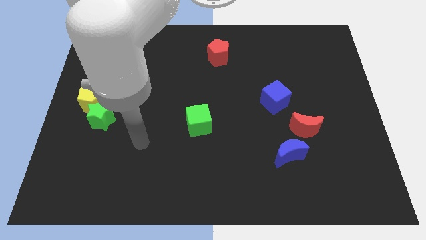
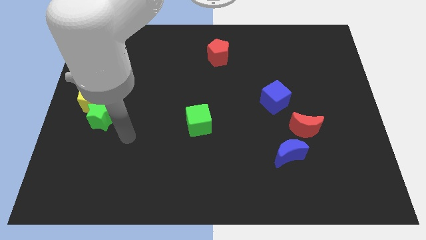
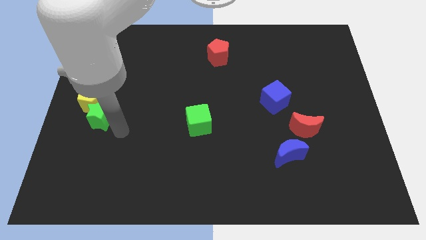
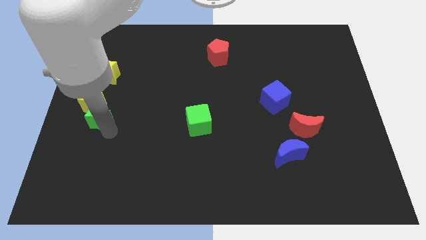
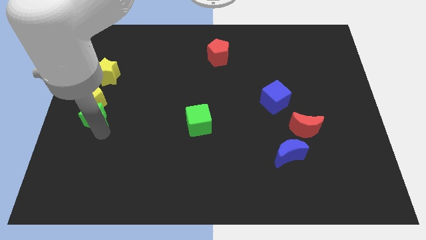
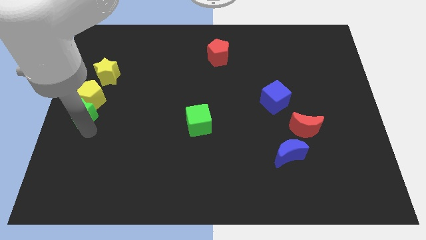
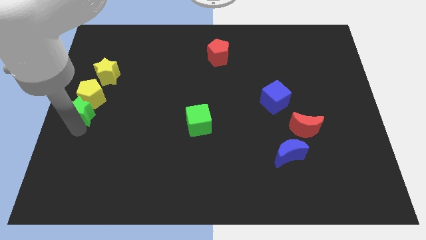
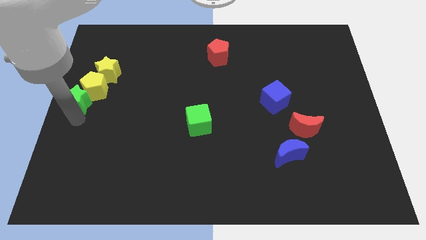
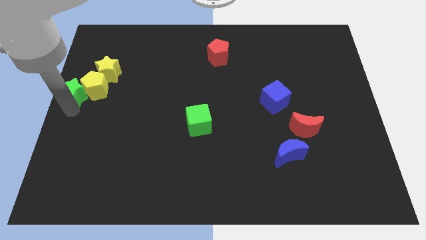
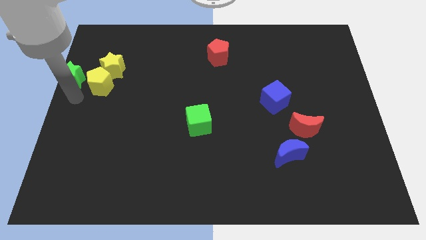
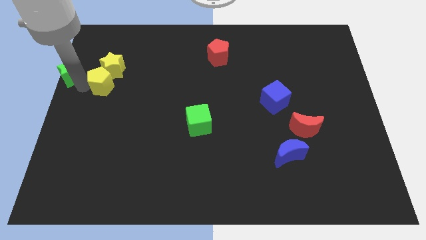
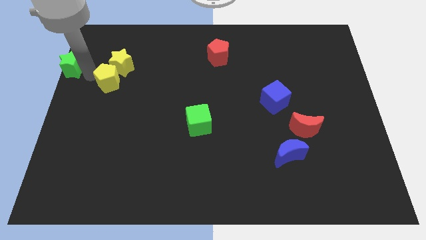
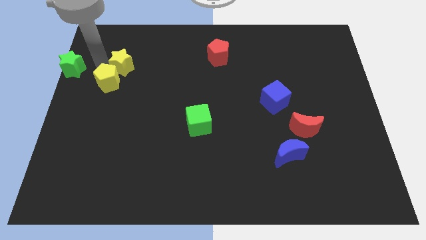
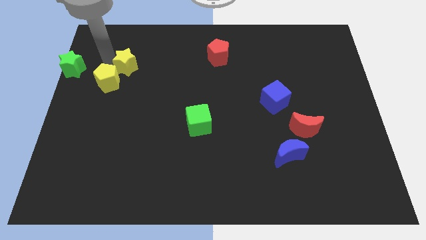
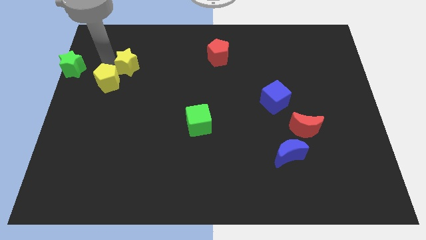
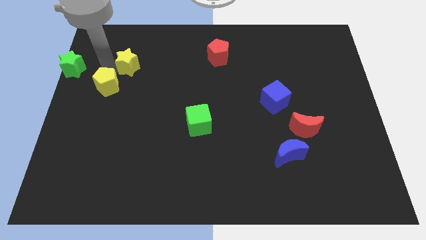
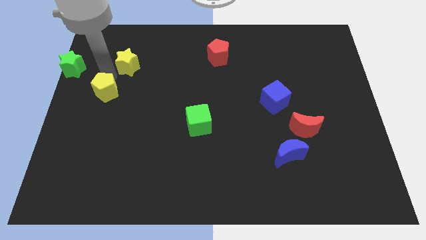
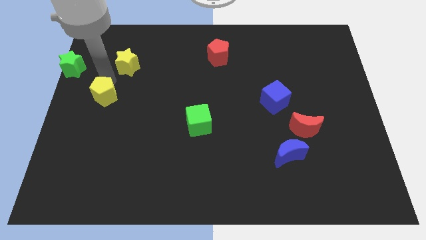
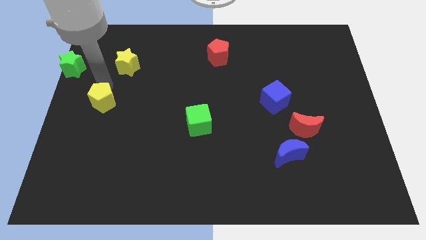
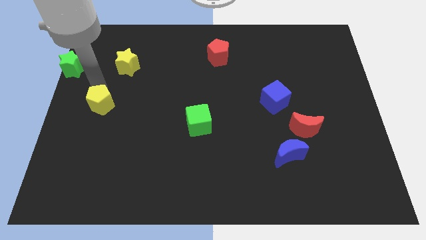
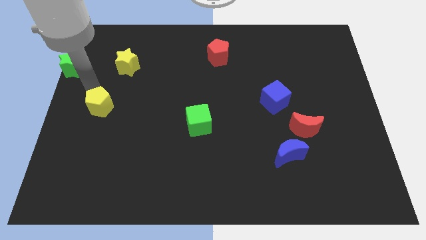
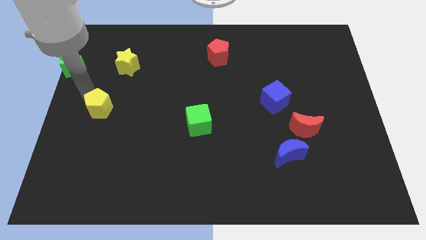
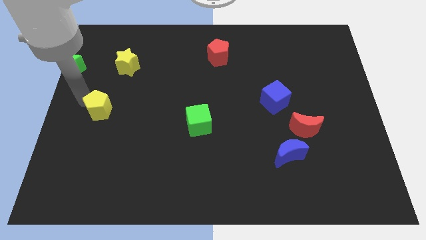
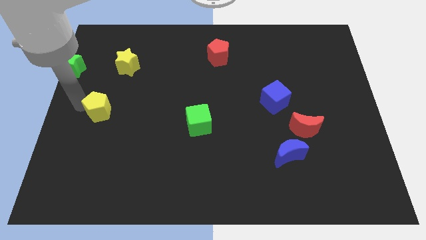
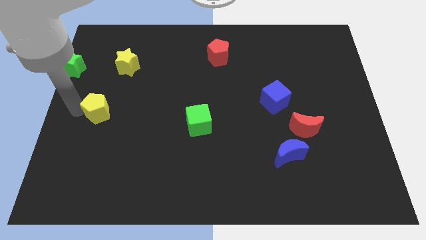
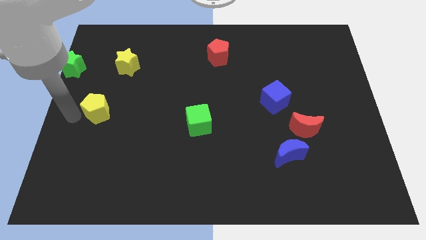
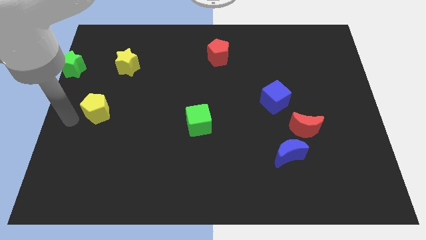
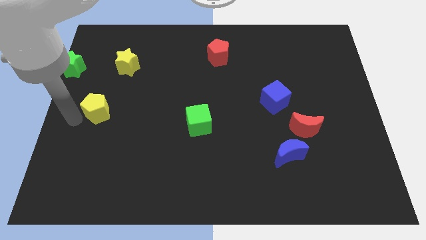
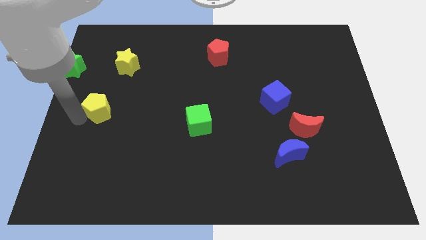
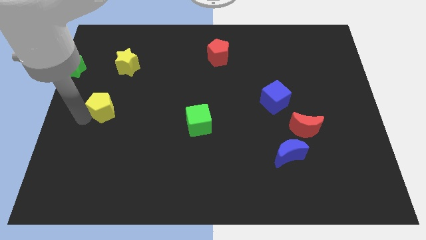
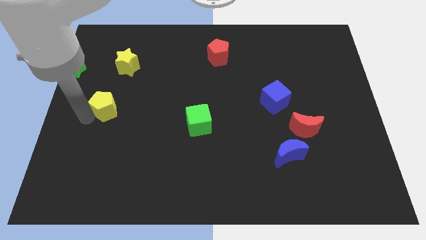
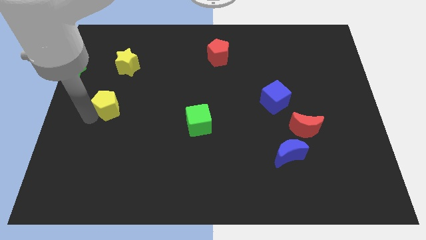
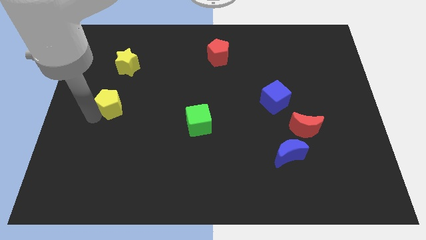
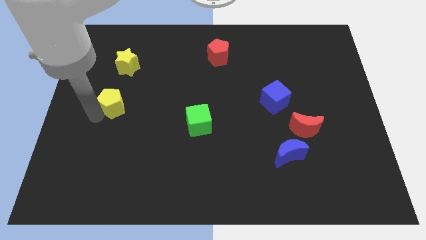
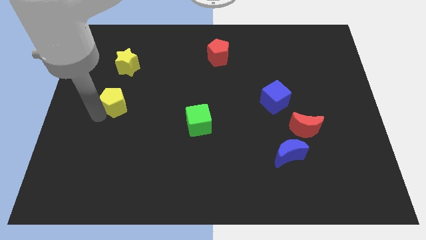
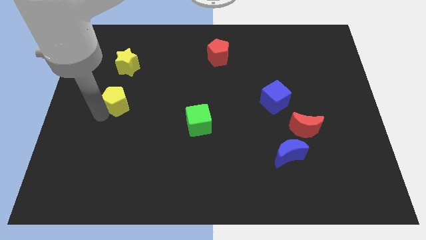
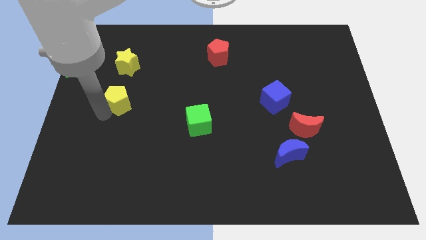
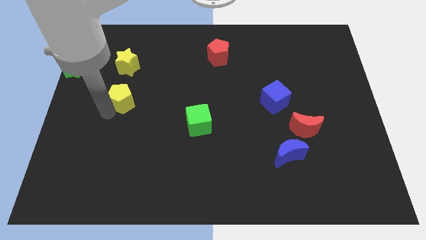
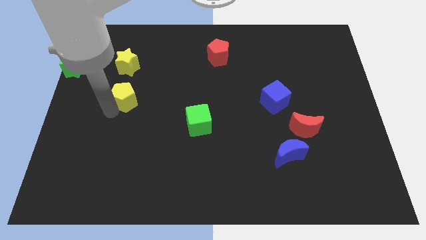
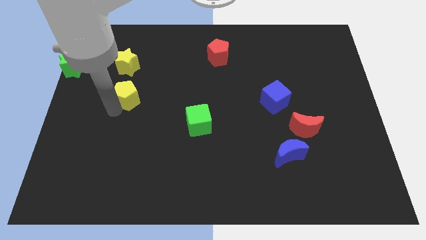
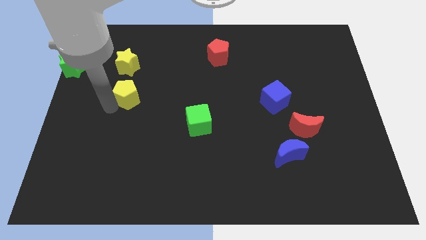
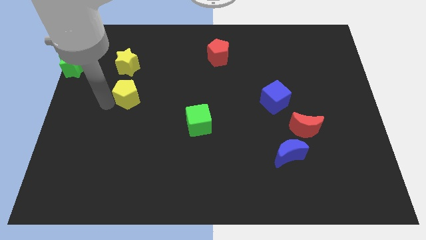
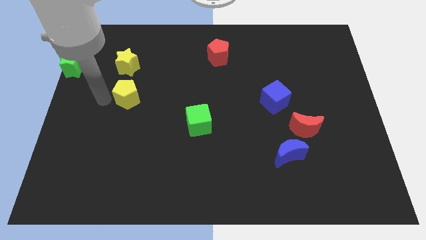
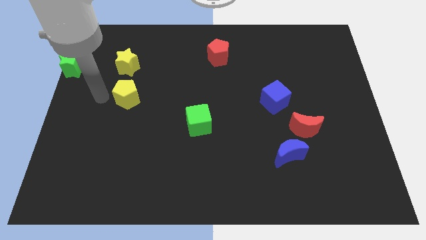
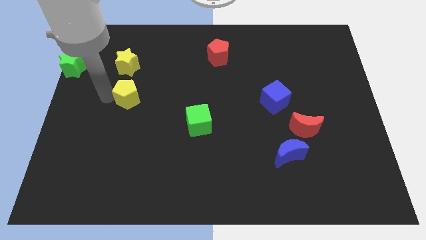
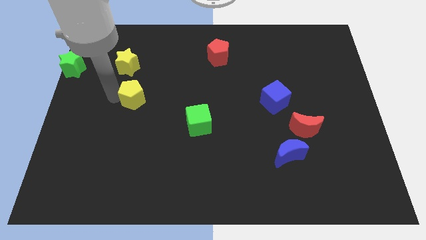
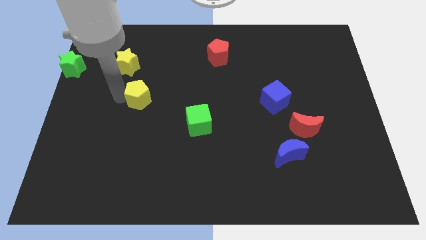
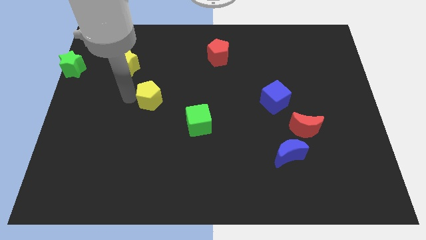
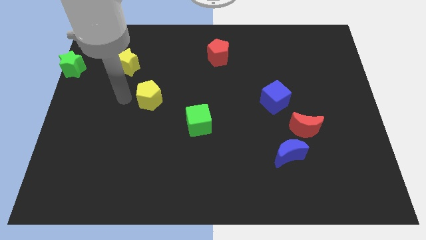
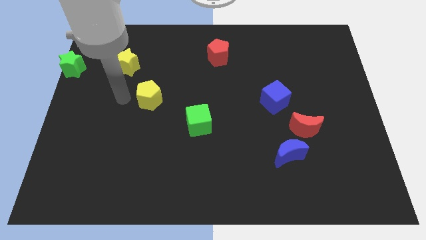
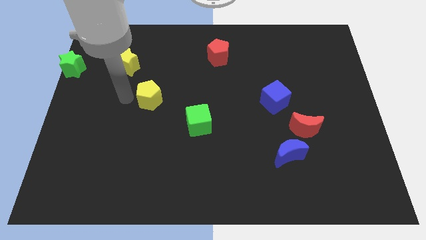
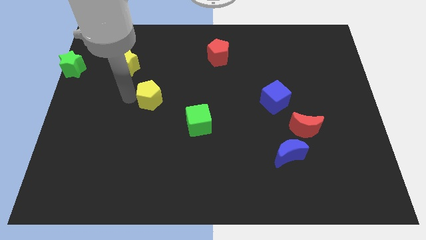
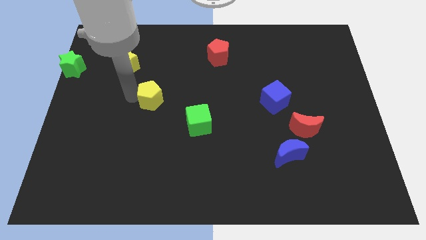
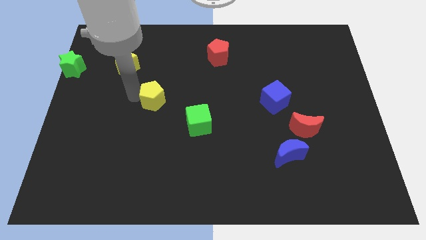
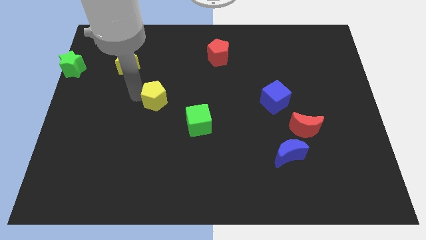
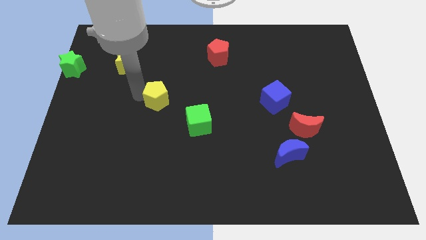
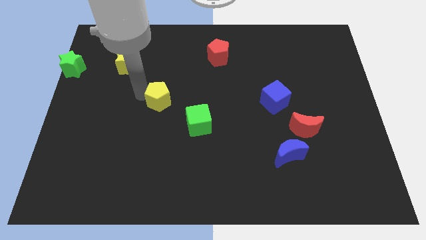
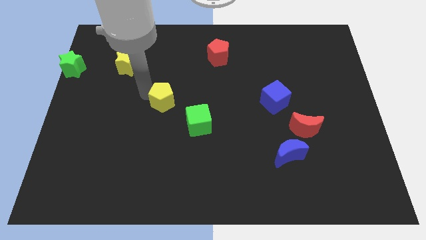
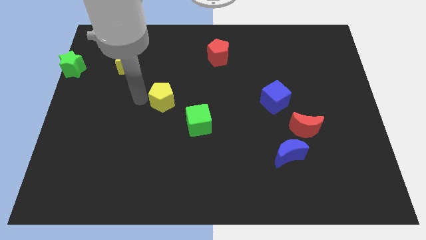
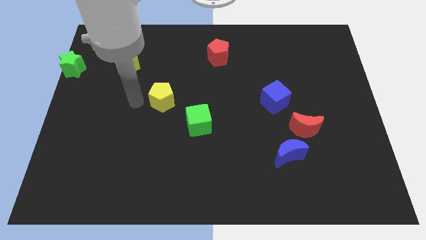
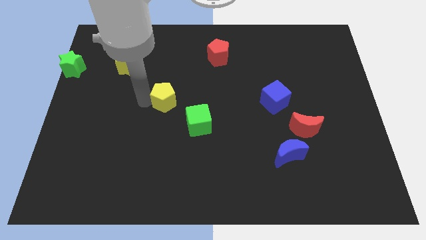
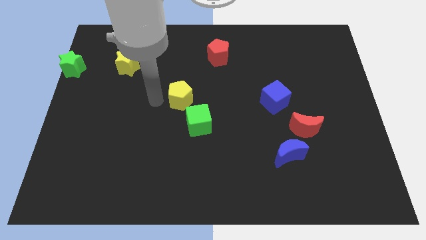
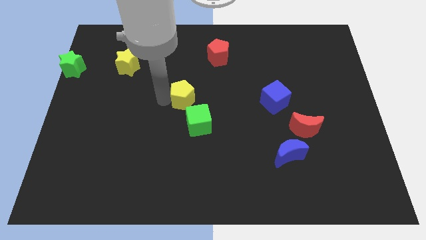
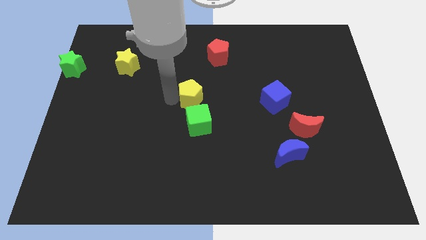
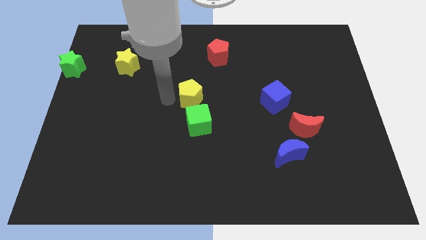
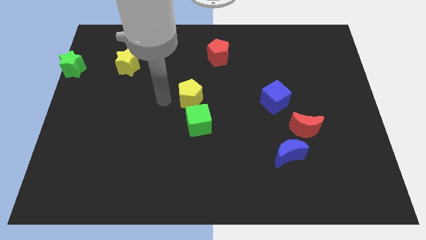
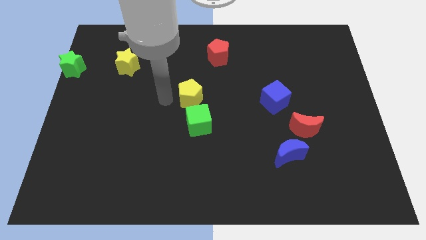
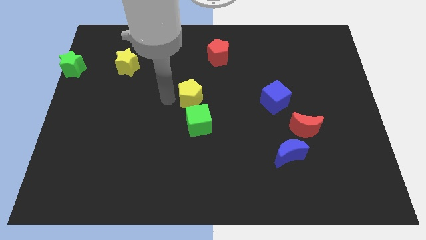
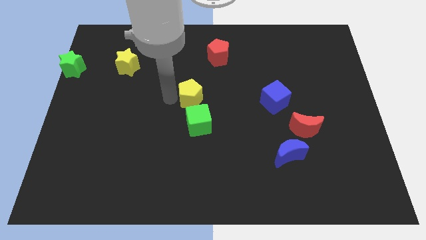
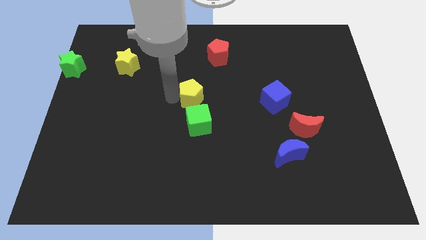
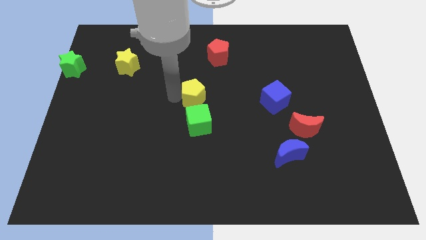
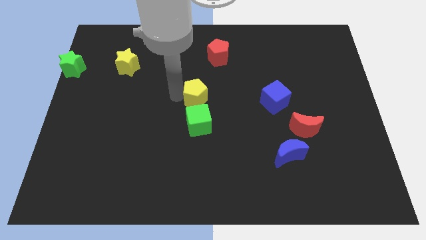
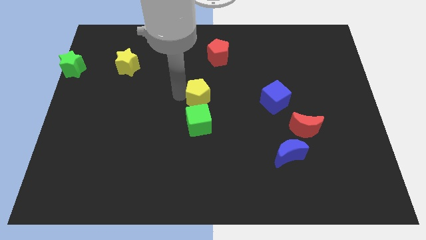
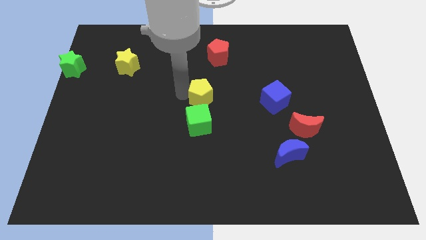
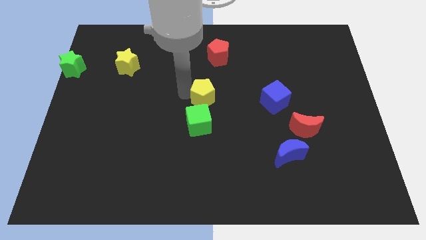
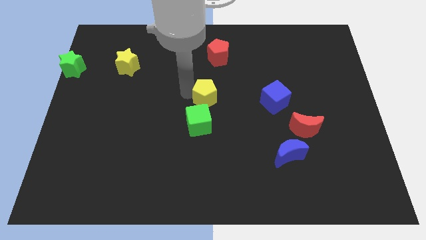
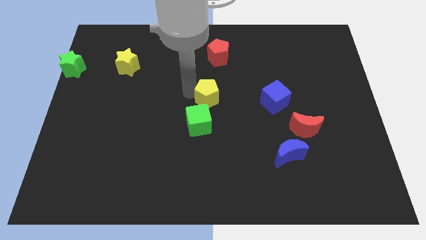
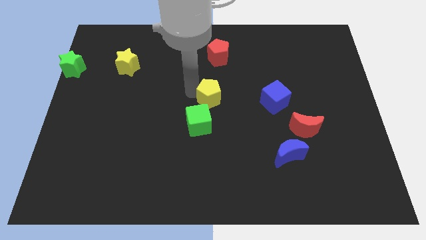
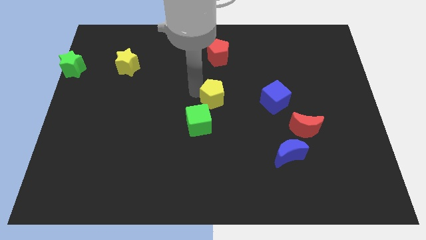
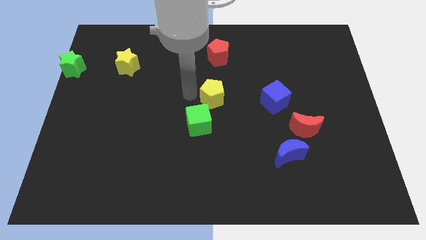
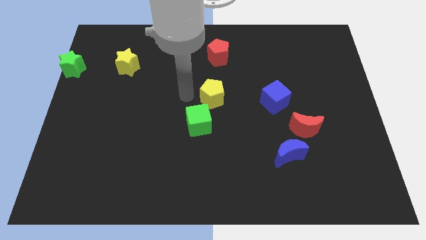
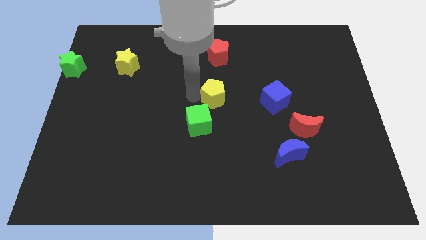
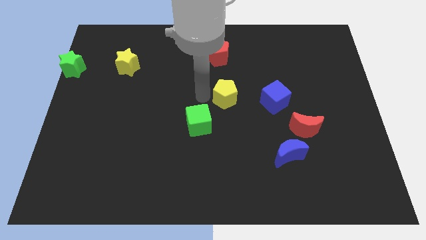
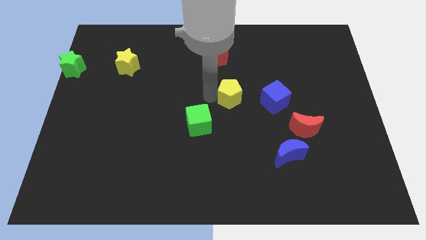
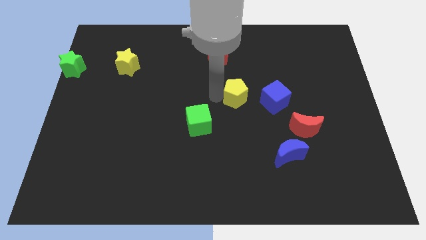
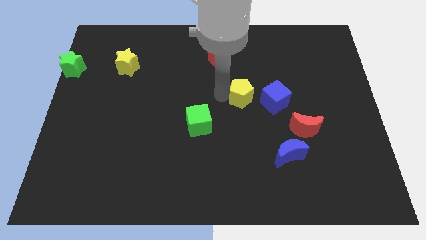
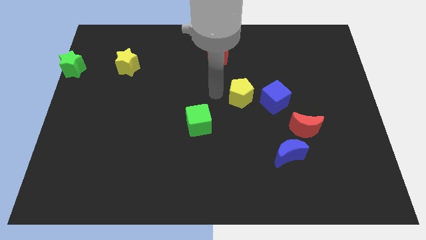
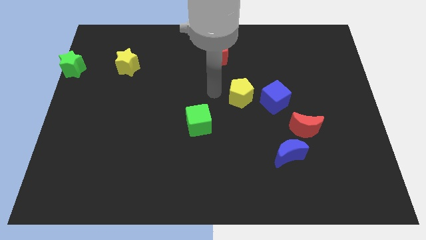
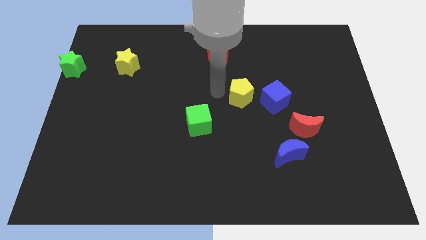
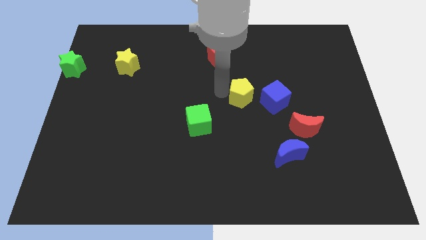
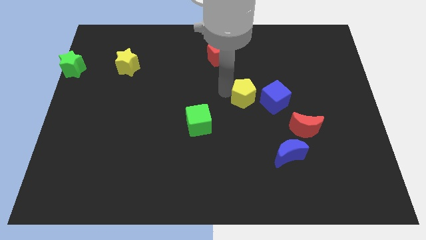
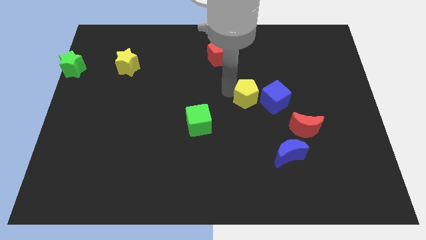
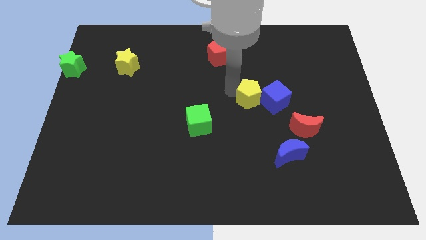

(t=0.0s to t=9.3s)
move the yellow pentagon towards the blue cube
